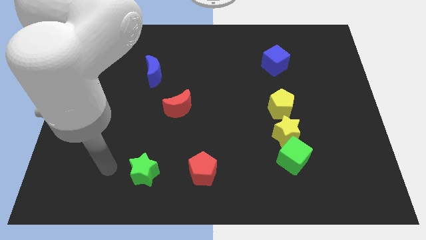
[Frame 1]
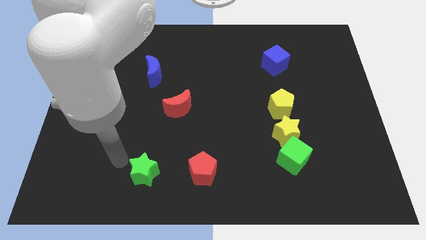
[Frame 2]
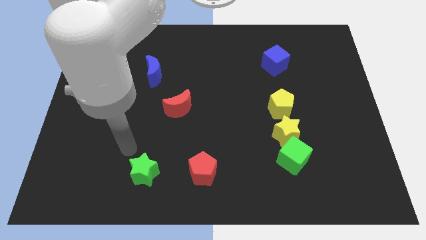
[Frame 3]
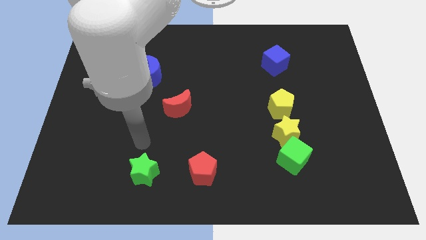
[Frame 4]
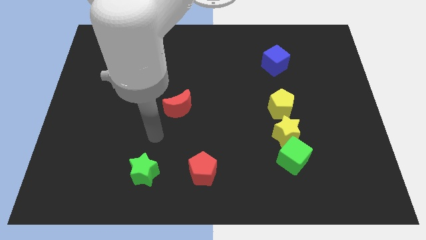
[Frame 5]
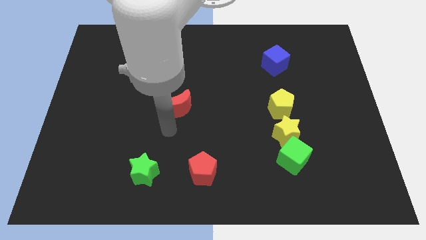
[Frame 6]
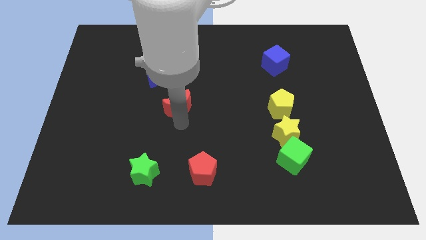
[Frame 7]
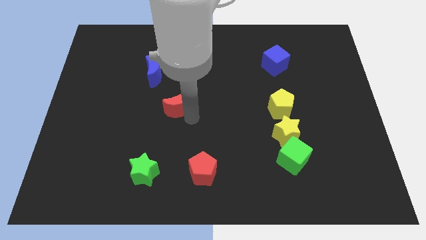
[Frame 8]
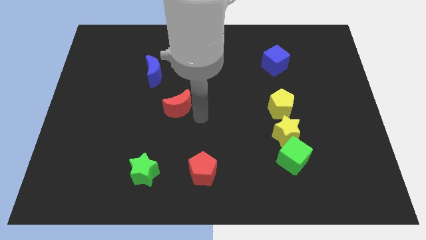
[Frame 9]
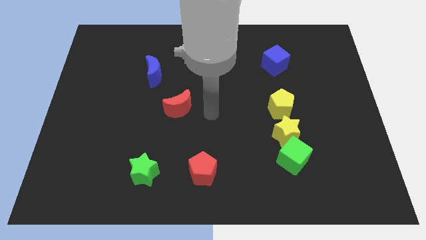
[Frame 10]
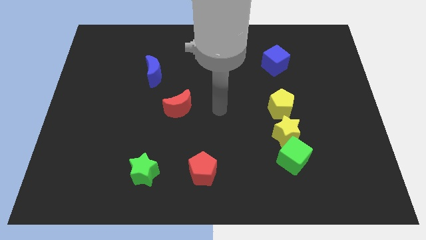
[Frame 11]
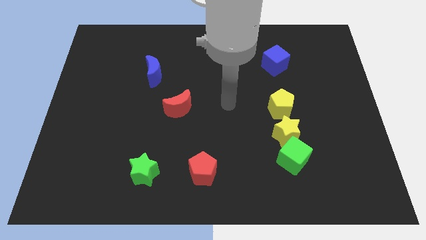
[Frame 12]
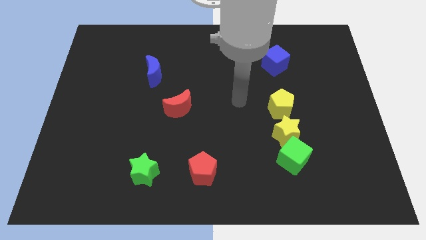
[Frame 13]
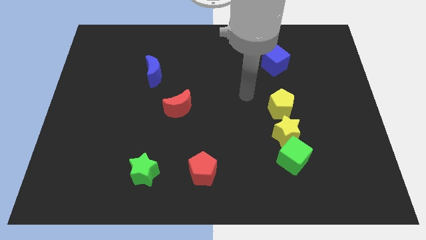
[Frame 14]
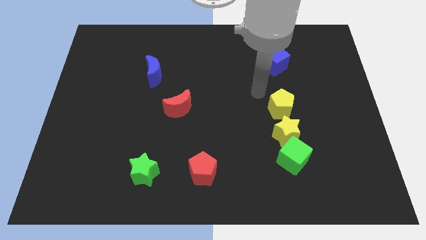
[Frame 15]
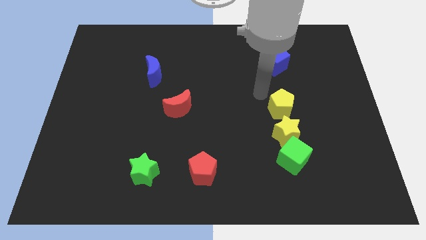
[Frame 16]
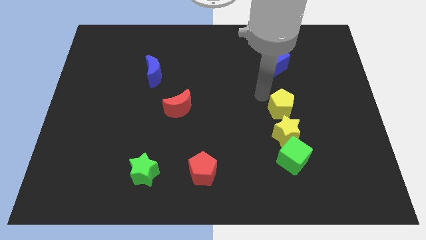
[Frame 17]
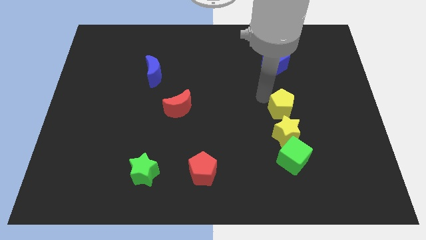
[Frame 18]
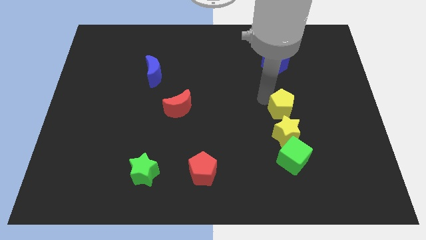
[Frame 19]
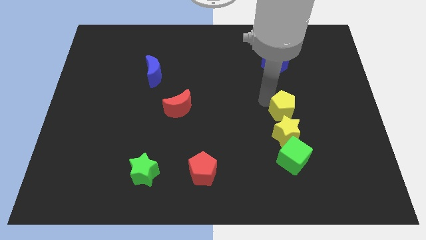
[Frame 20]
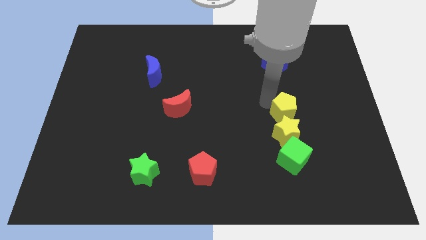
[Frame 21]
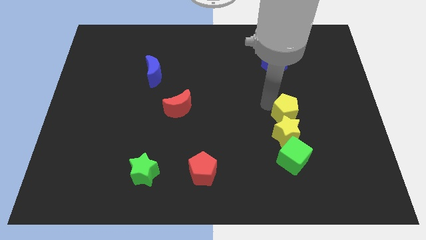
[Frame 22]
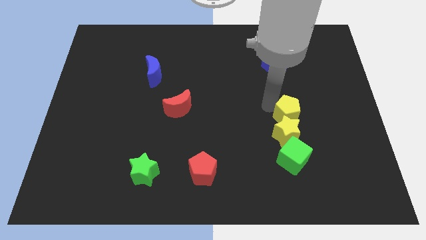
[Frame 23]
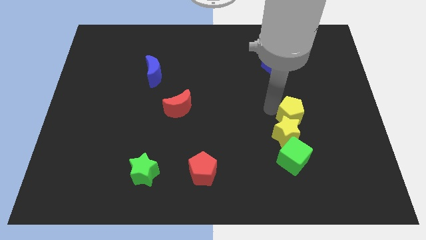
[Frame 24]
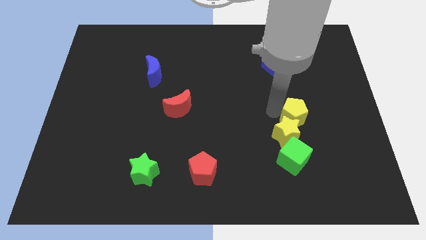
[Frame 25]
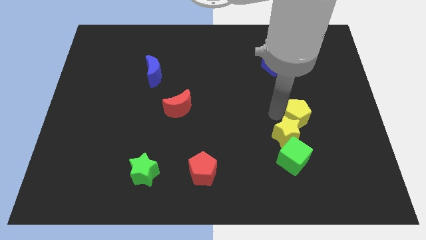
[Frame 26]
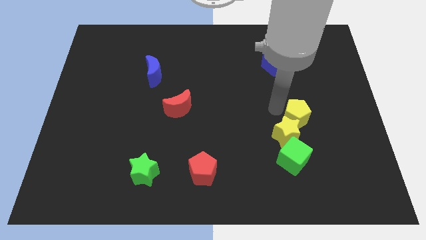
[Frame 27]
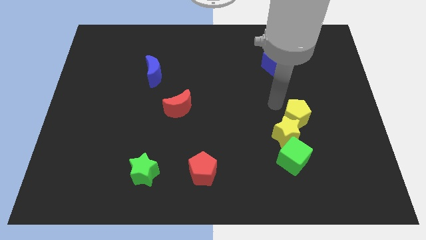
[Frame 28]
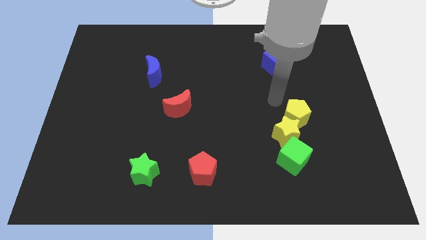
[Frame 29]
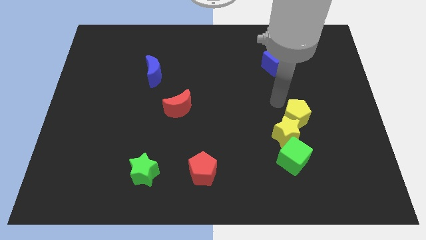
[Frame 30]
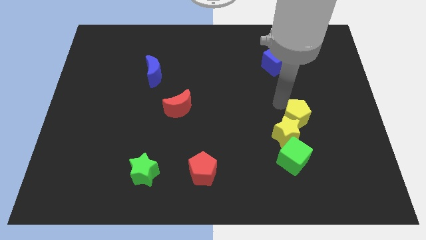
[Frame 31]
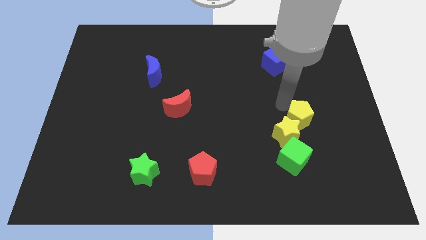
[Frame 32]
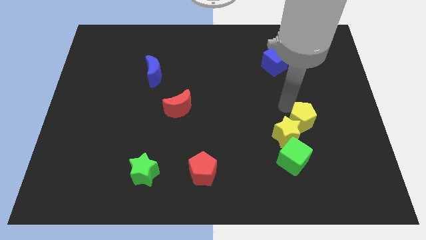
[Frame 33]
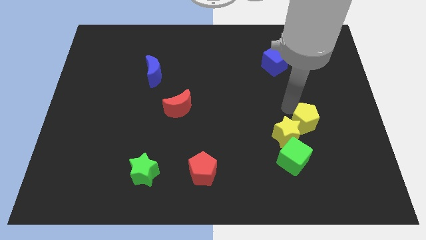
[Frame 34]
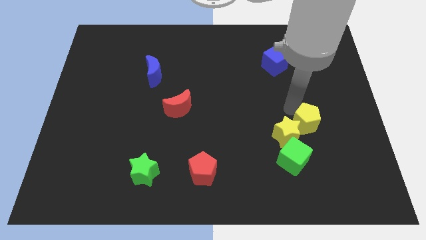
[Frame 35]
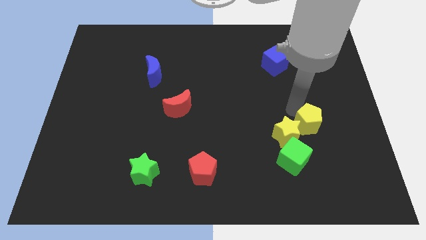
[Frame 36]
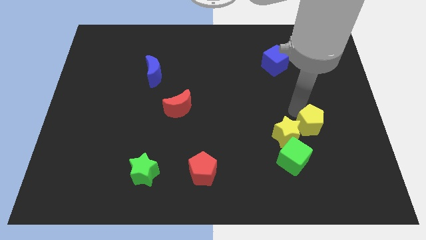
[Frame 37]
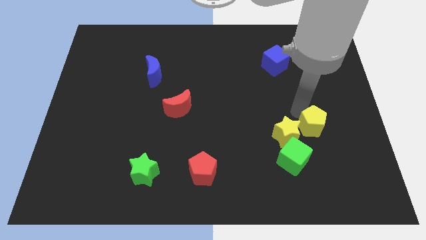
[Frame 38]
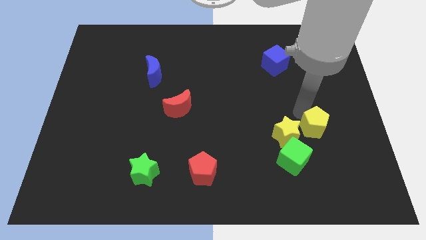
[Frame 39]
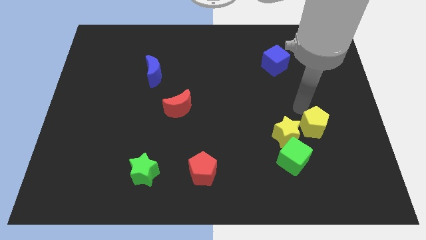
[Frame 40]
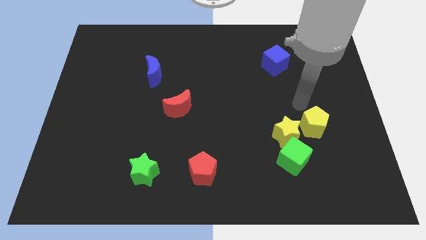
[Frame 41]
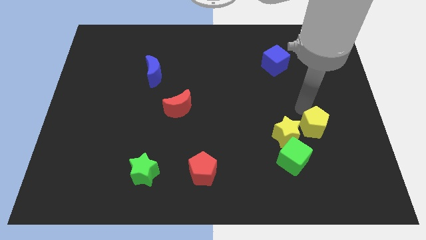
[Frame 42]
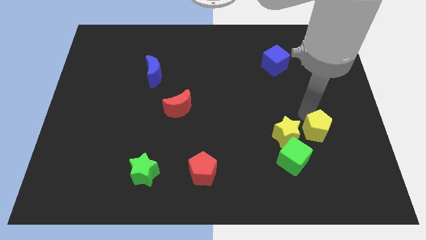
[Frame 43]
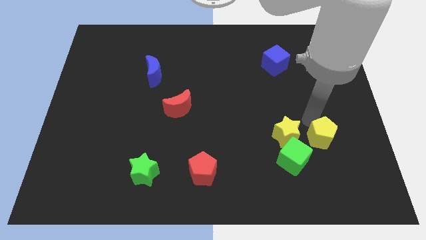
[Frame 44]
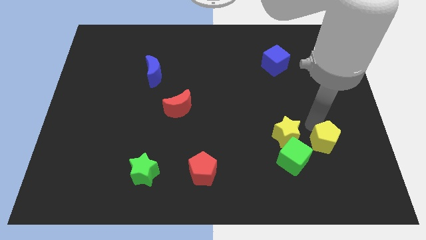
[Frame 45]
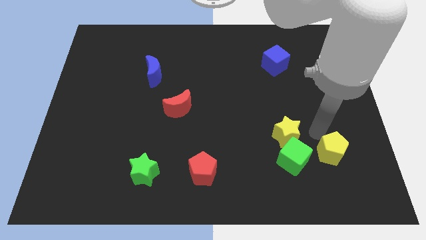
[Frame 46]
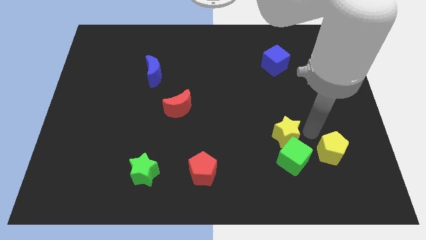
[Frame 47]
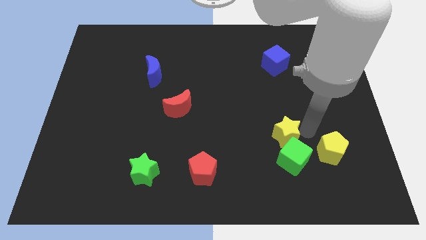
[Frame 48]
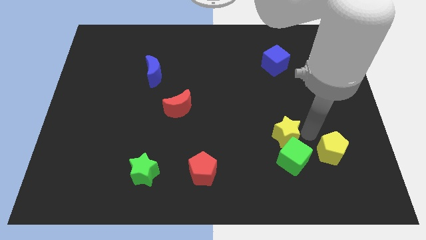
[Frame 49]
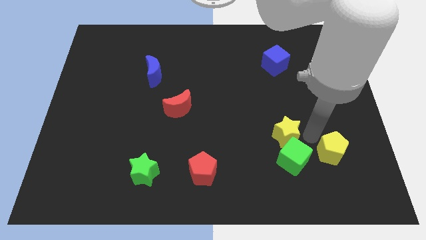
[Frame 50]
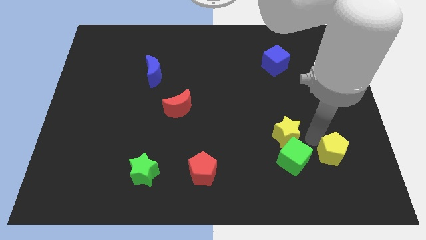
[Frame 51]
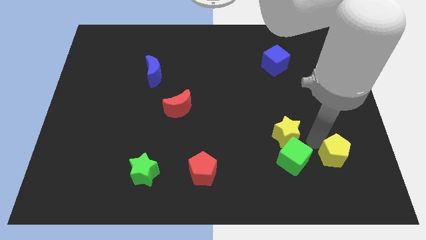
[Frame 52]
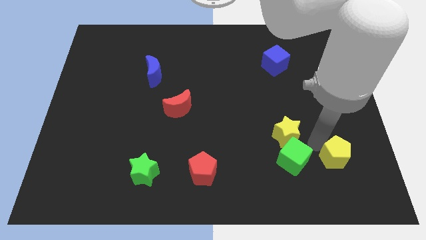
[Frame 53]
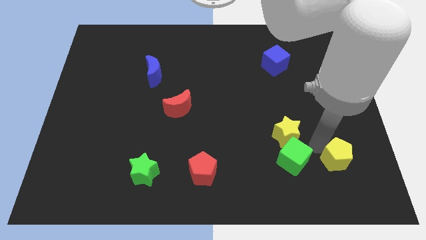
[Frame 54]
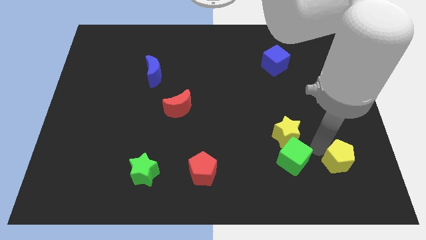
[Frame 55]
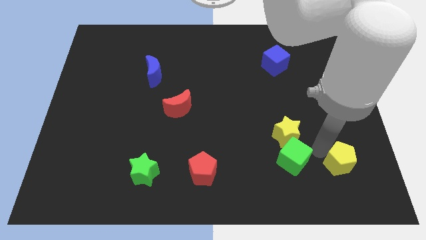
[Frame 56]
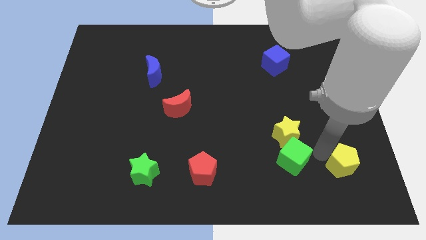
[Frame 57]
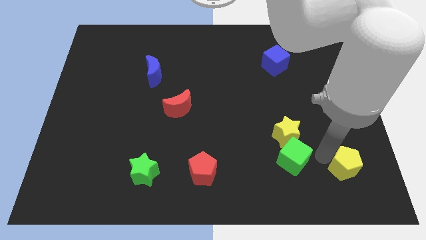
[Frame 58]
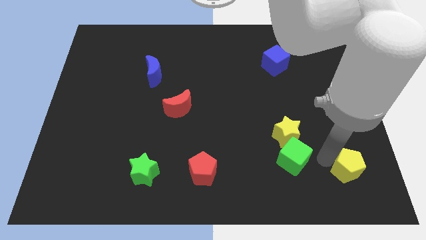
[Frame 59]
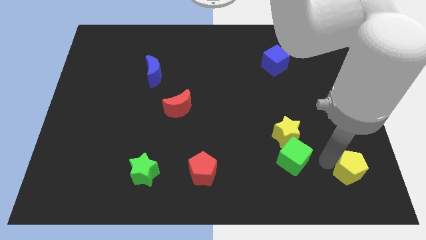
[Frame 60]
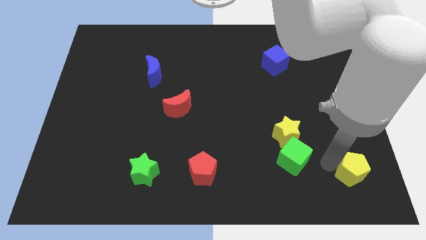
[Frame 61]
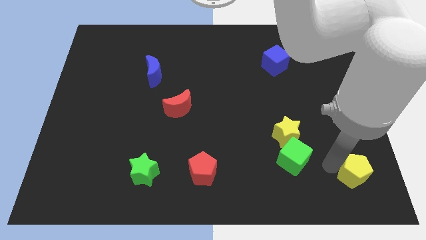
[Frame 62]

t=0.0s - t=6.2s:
slide the yellow pentagon to the bottom right corner

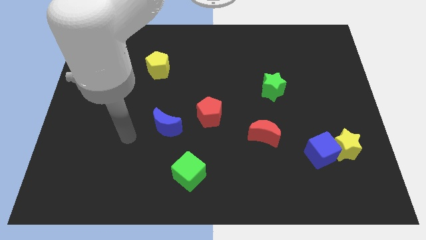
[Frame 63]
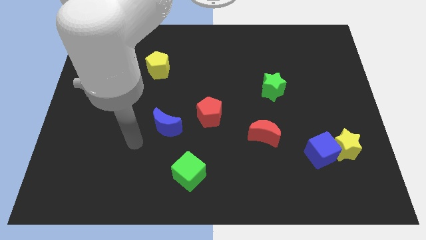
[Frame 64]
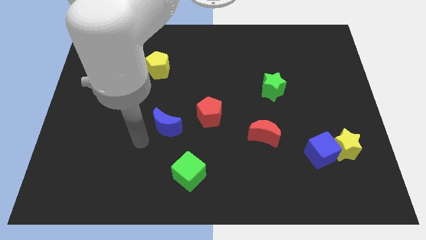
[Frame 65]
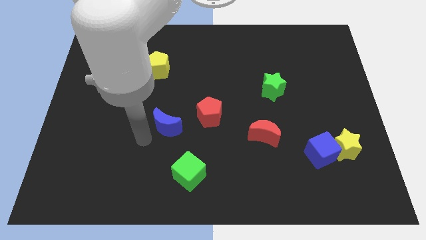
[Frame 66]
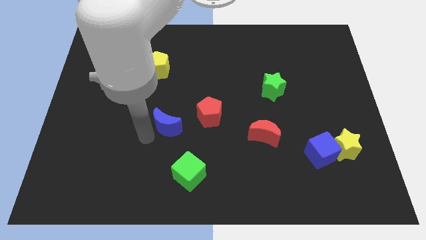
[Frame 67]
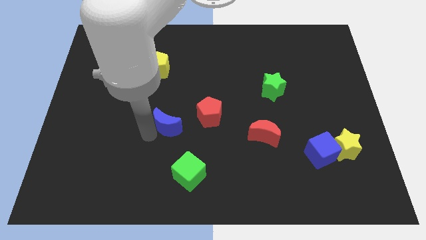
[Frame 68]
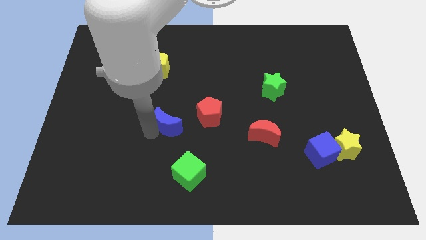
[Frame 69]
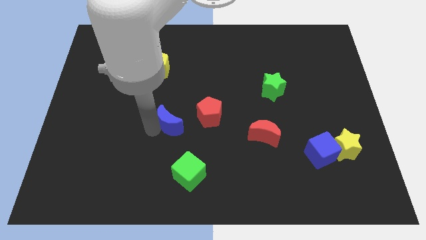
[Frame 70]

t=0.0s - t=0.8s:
slide the blue moon to the center

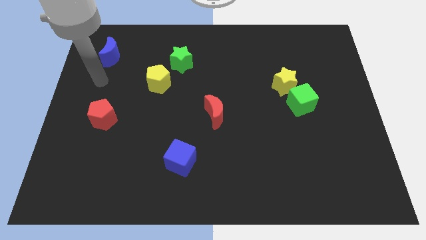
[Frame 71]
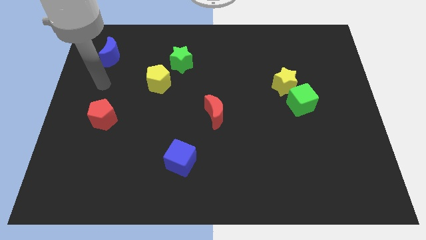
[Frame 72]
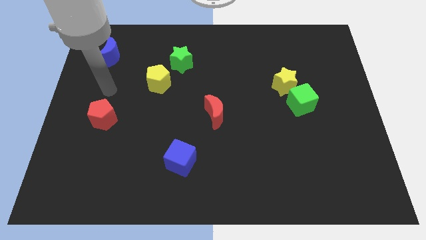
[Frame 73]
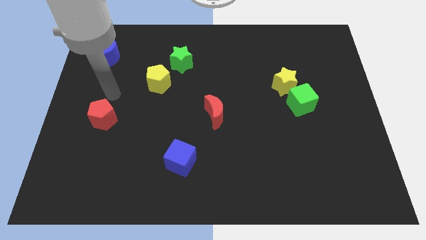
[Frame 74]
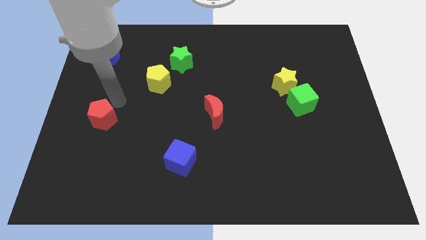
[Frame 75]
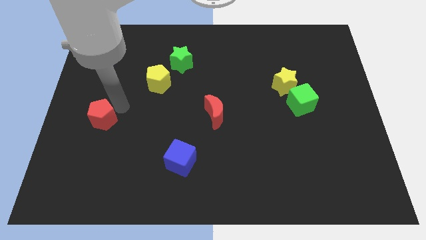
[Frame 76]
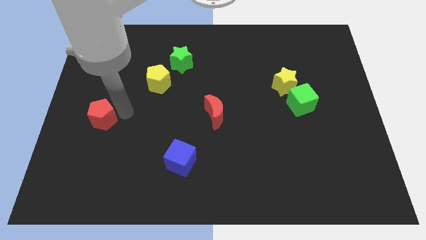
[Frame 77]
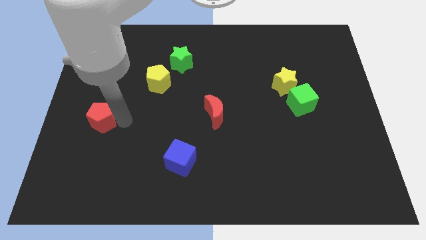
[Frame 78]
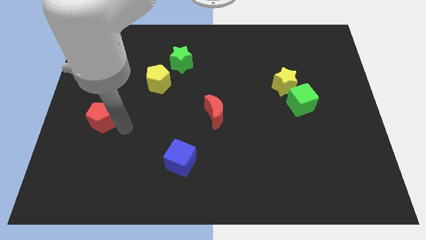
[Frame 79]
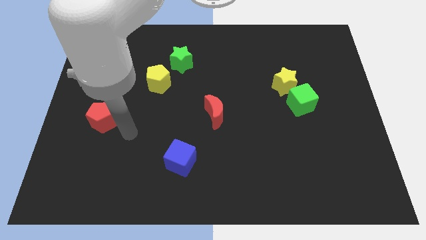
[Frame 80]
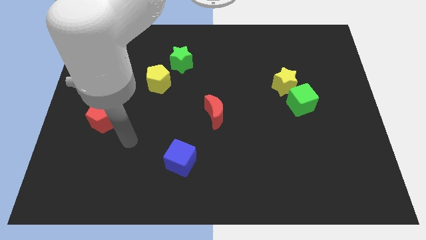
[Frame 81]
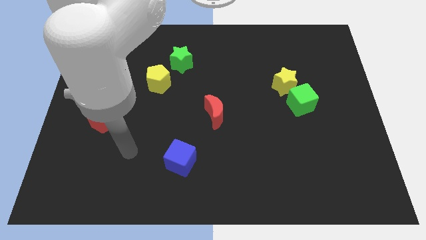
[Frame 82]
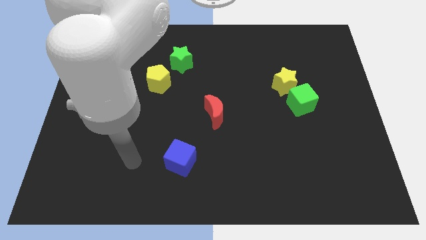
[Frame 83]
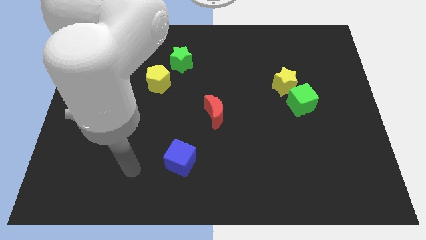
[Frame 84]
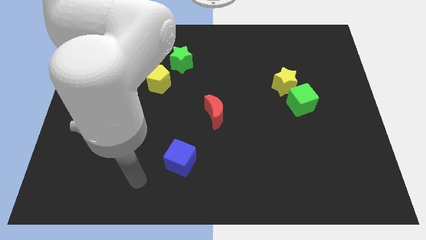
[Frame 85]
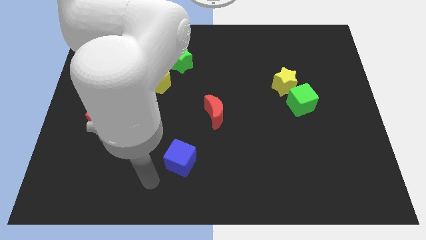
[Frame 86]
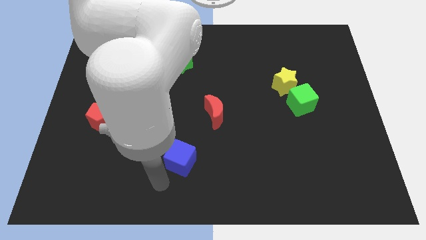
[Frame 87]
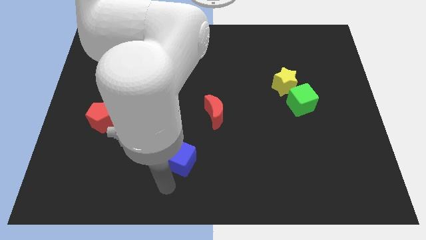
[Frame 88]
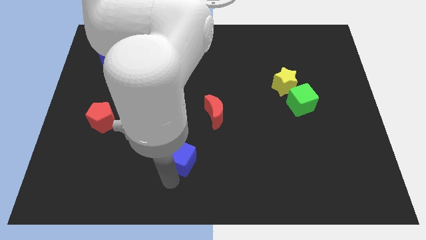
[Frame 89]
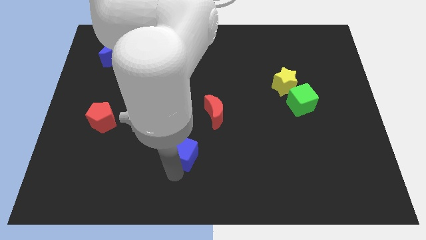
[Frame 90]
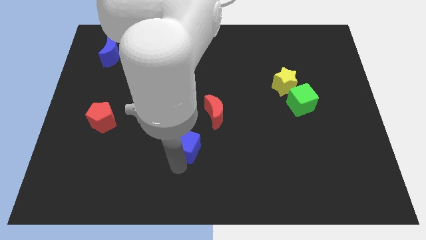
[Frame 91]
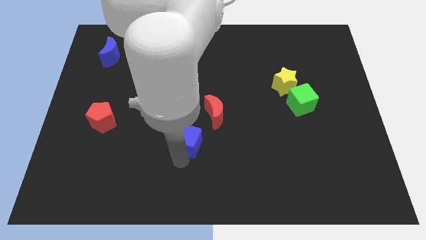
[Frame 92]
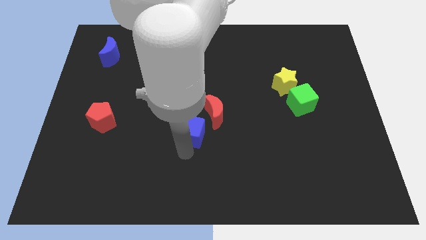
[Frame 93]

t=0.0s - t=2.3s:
put the blue cube to the middle
